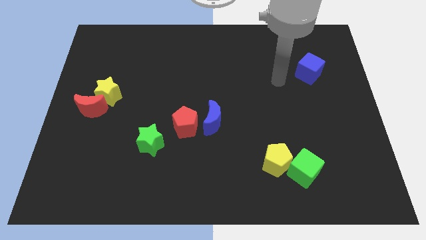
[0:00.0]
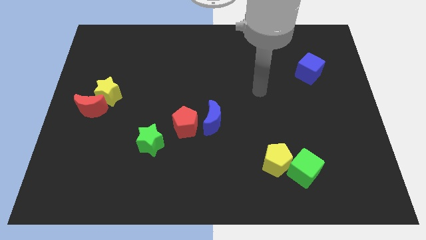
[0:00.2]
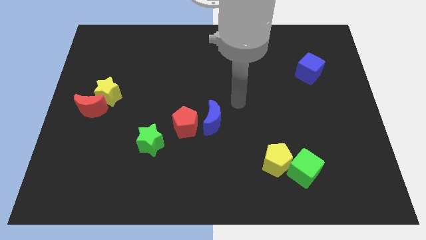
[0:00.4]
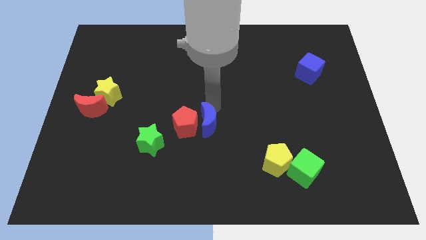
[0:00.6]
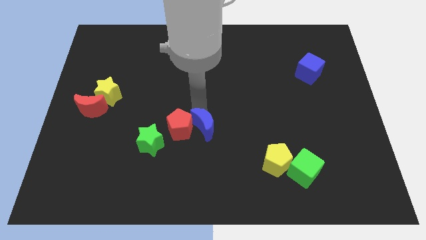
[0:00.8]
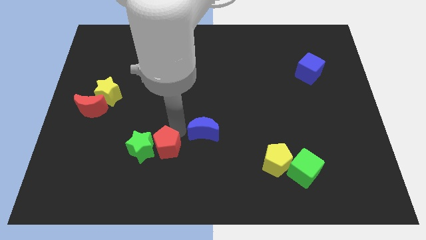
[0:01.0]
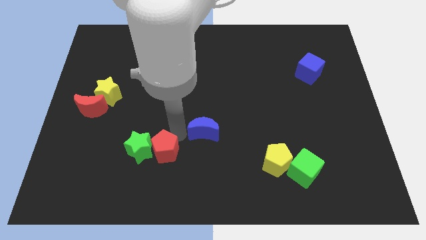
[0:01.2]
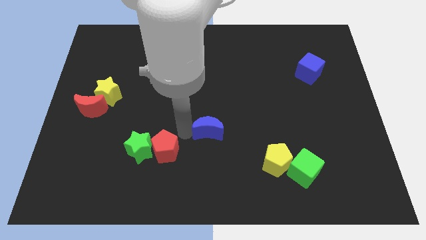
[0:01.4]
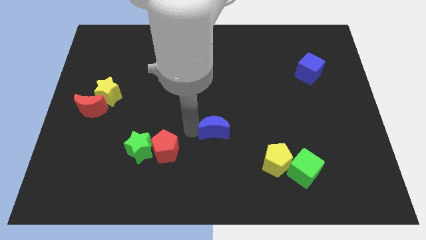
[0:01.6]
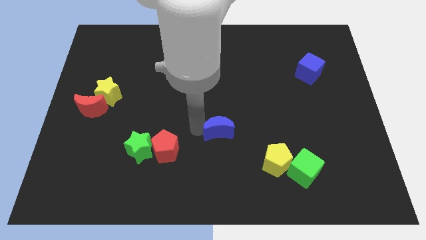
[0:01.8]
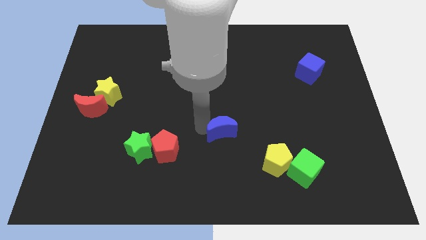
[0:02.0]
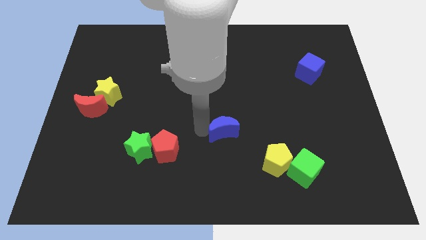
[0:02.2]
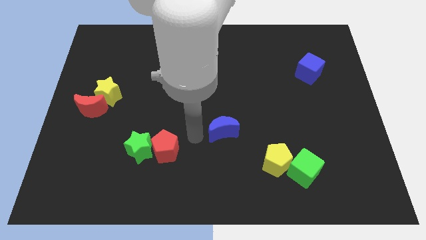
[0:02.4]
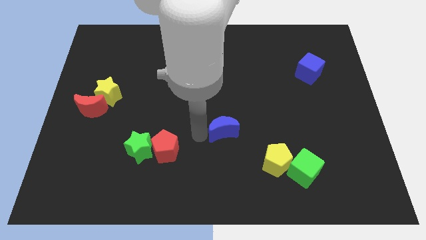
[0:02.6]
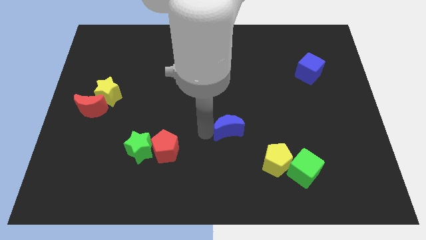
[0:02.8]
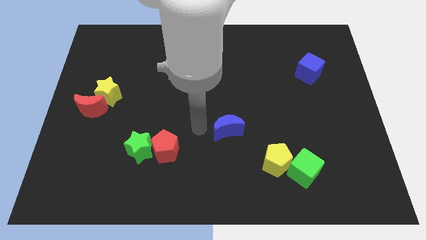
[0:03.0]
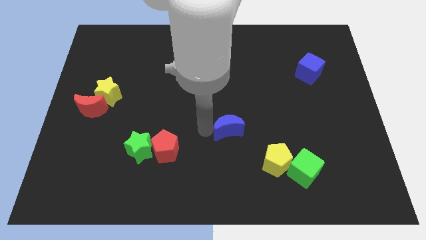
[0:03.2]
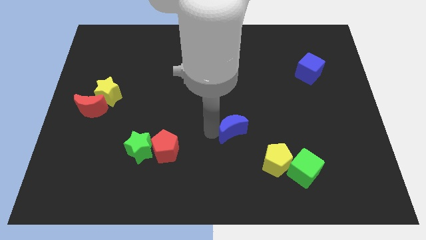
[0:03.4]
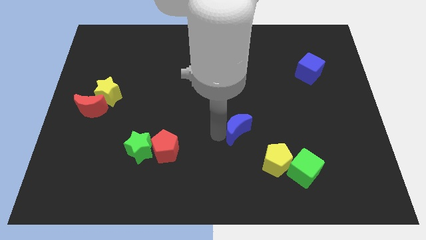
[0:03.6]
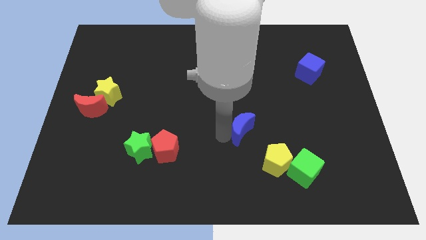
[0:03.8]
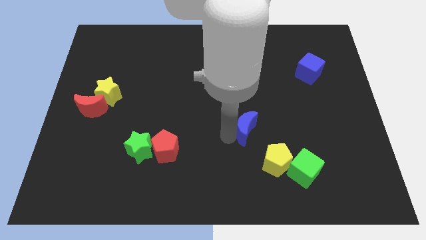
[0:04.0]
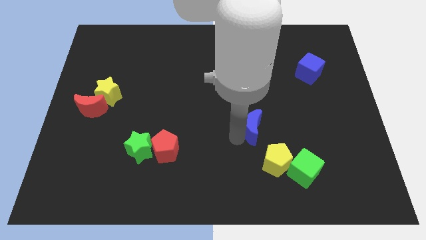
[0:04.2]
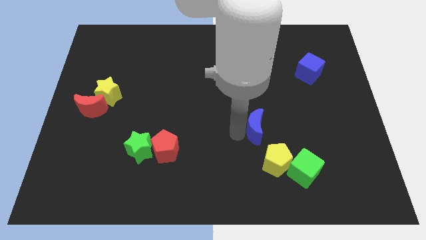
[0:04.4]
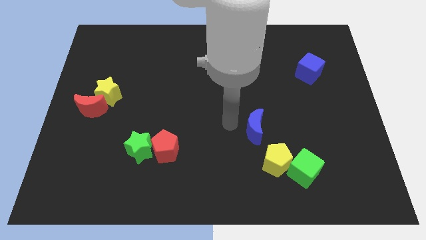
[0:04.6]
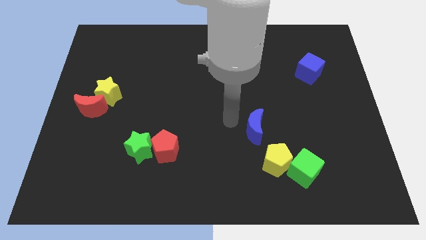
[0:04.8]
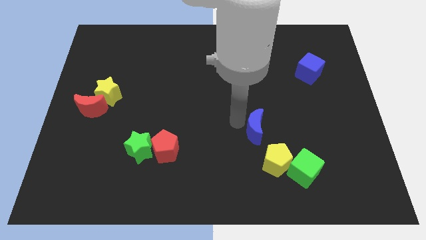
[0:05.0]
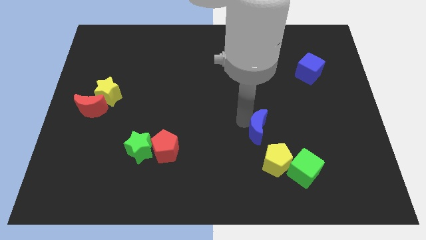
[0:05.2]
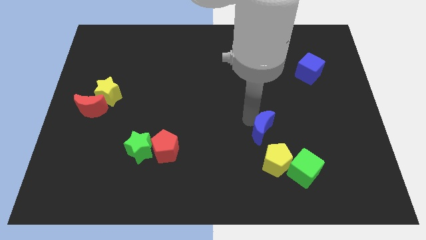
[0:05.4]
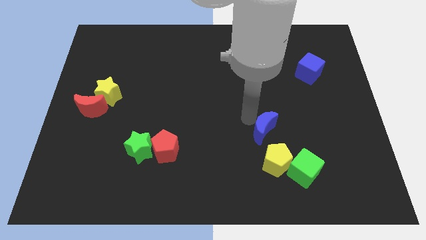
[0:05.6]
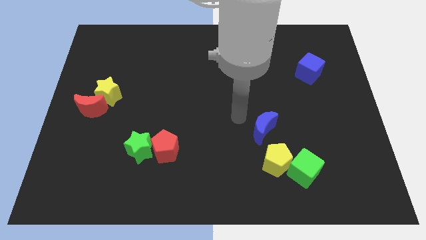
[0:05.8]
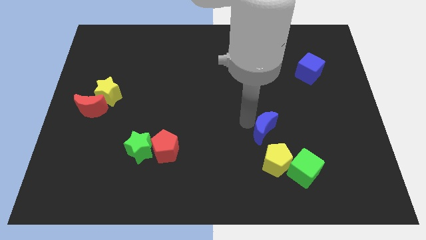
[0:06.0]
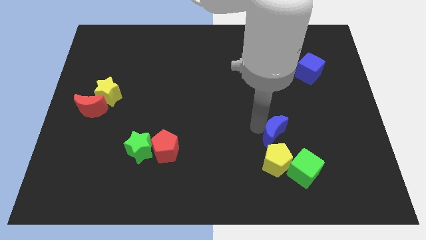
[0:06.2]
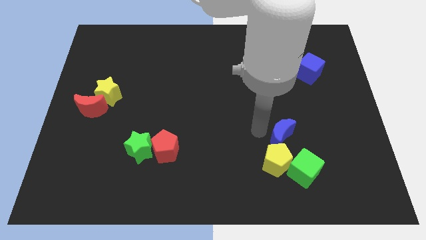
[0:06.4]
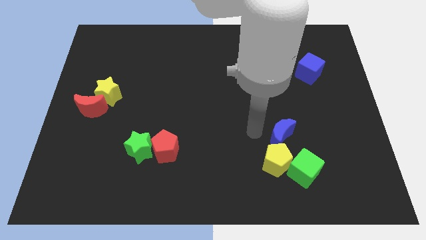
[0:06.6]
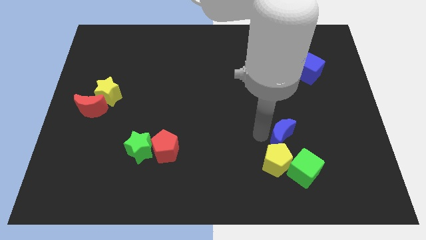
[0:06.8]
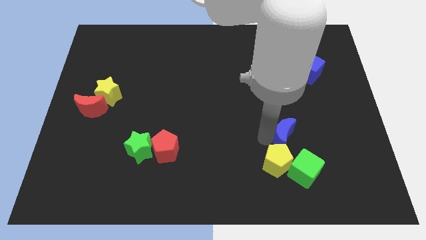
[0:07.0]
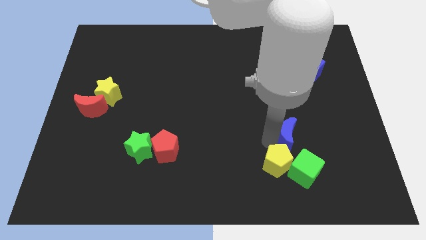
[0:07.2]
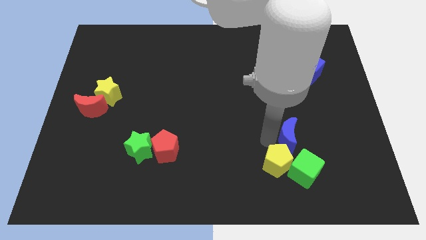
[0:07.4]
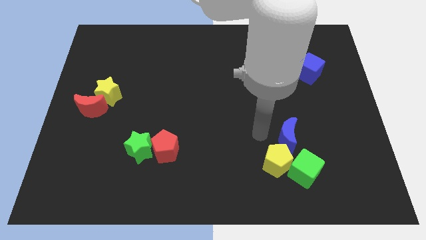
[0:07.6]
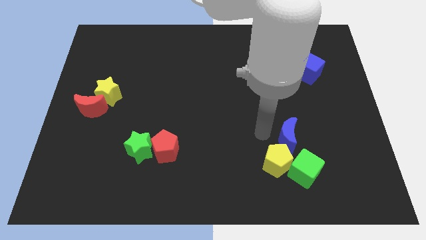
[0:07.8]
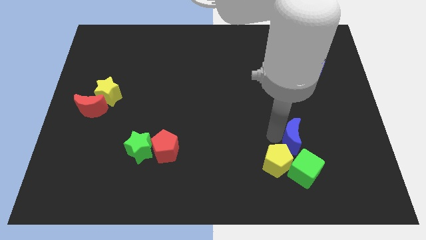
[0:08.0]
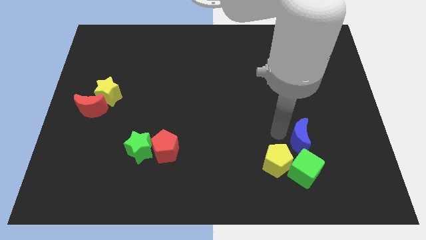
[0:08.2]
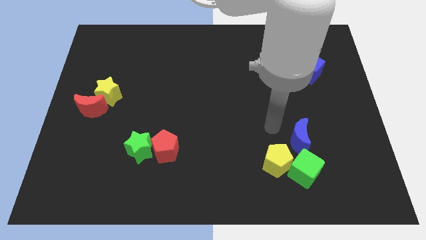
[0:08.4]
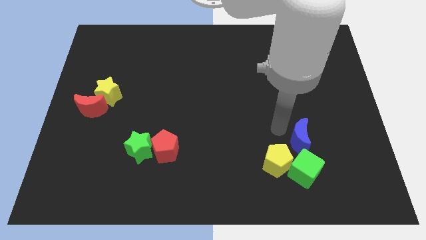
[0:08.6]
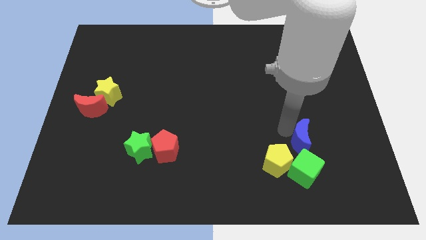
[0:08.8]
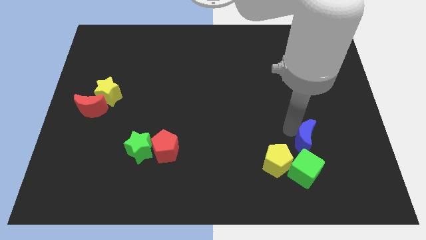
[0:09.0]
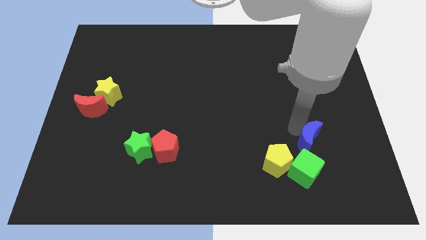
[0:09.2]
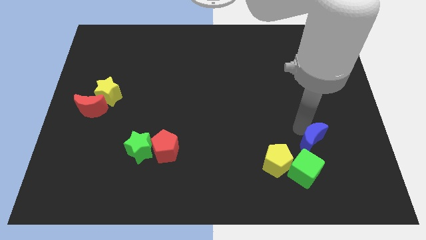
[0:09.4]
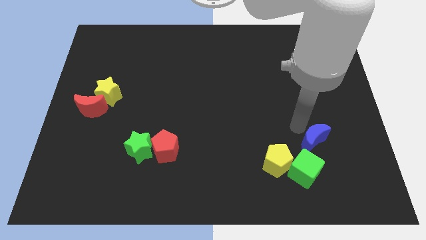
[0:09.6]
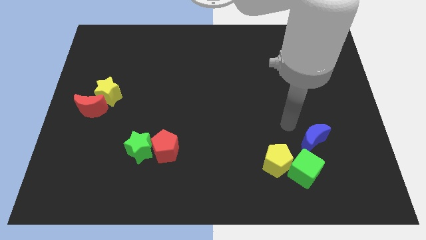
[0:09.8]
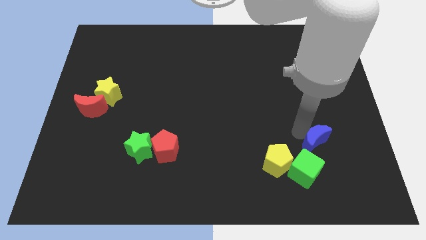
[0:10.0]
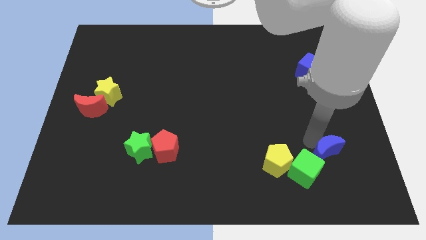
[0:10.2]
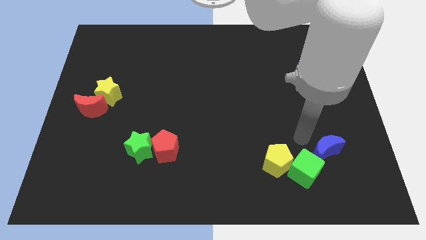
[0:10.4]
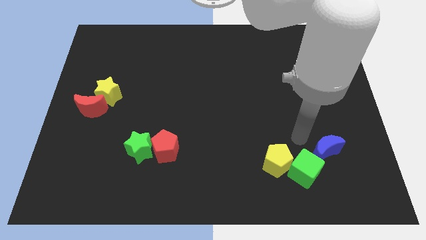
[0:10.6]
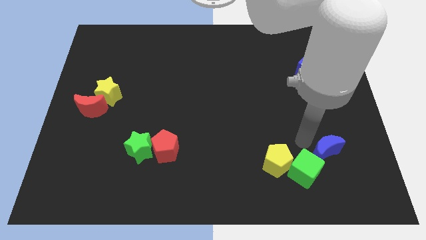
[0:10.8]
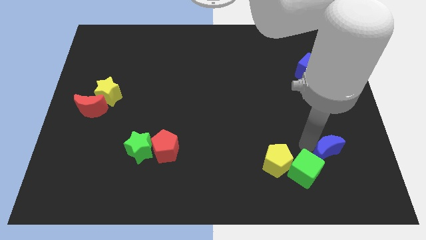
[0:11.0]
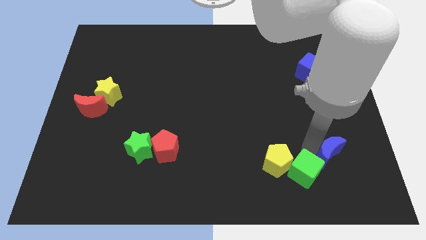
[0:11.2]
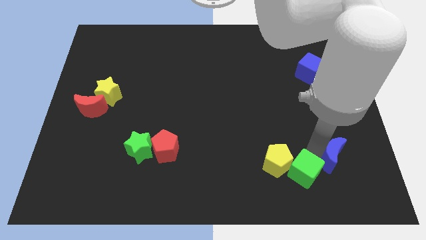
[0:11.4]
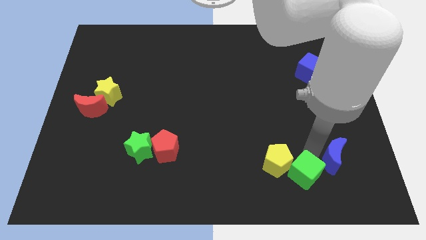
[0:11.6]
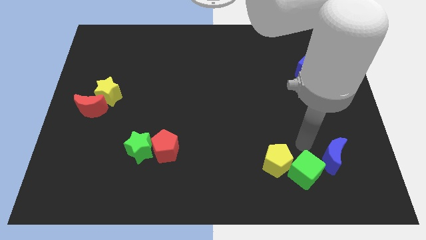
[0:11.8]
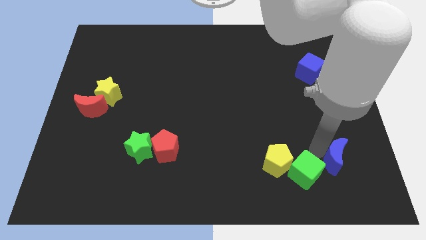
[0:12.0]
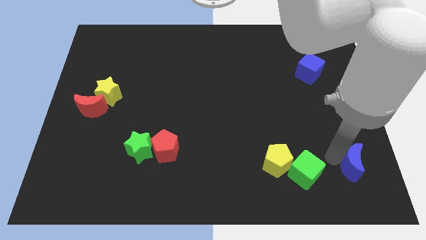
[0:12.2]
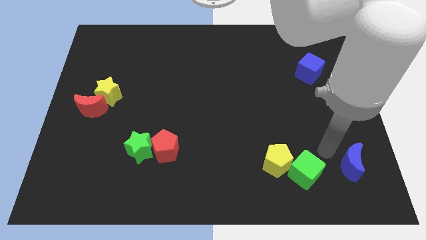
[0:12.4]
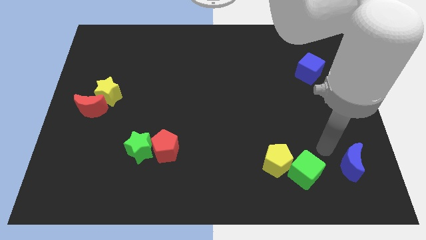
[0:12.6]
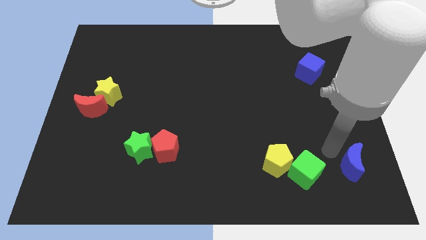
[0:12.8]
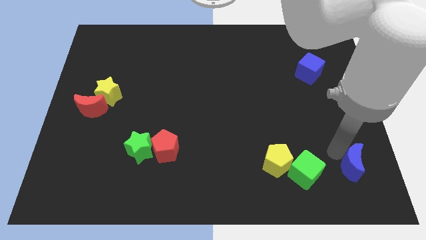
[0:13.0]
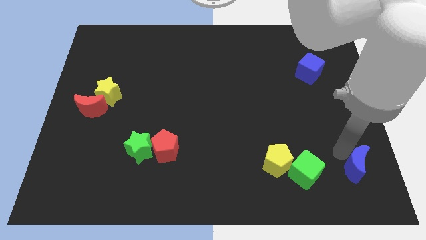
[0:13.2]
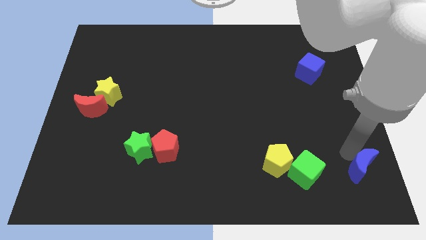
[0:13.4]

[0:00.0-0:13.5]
push the blue moon to the bottom right
